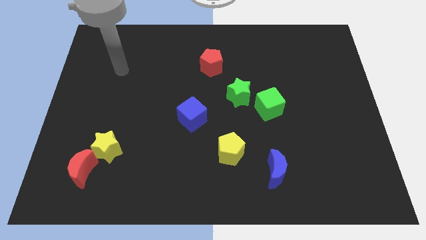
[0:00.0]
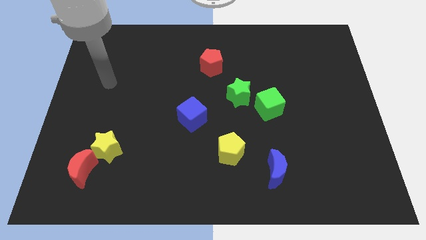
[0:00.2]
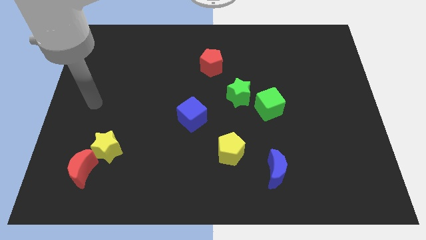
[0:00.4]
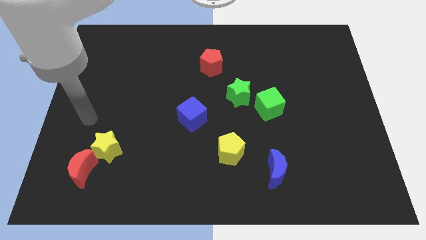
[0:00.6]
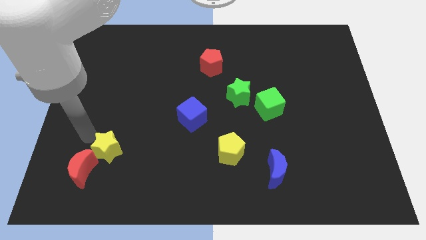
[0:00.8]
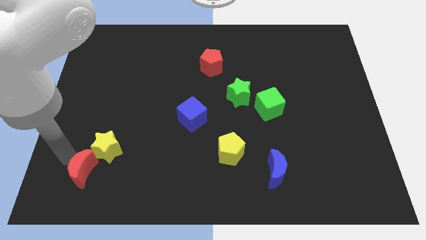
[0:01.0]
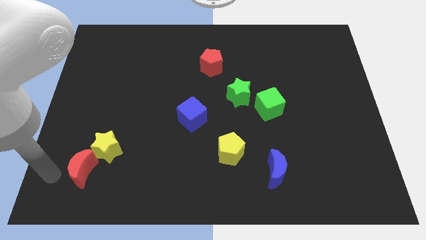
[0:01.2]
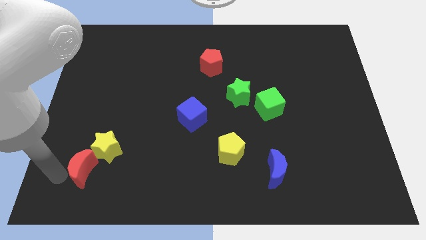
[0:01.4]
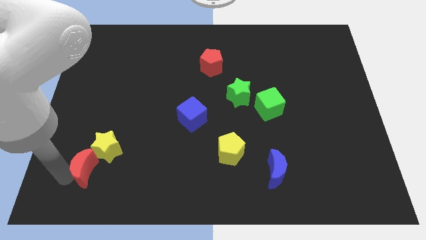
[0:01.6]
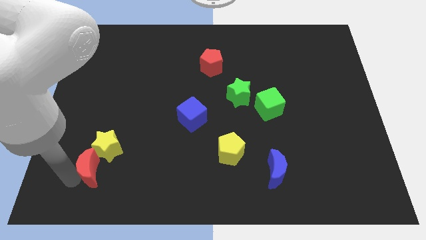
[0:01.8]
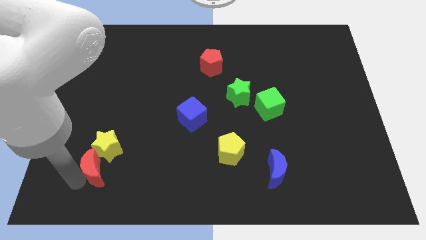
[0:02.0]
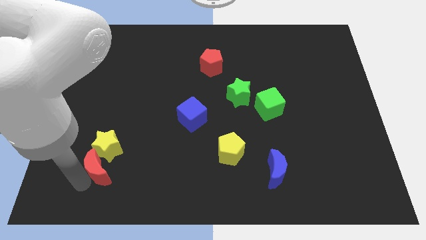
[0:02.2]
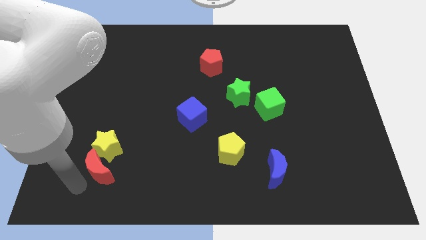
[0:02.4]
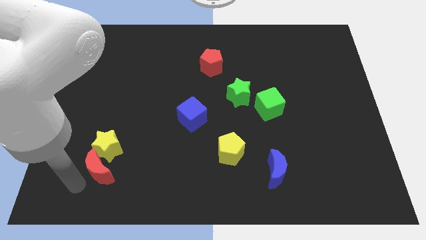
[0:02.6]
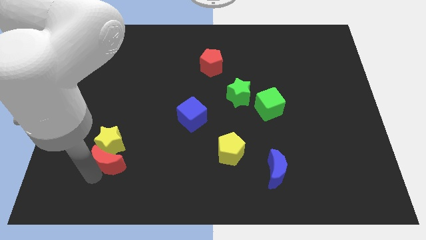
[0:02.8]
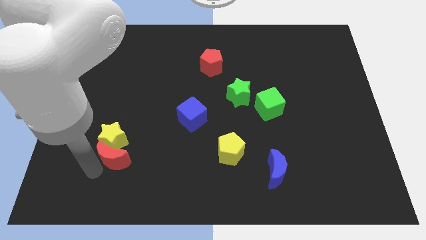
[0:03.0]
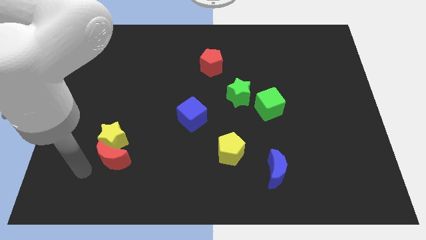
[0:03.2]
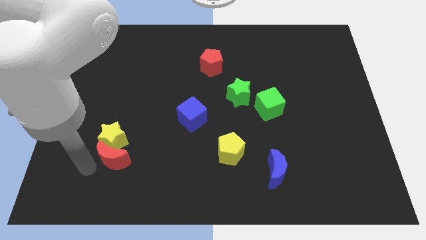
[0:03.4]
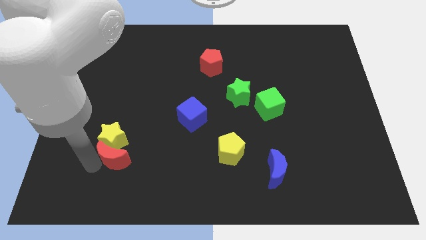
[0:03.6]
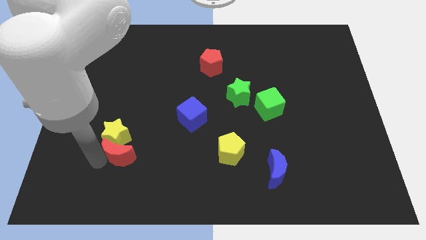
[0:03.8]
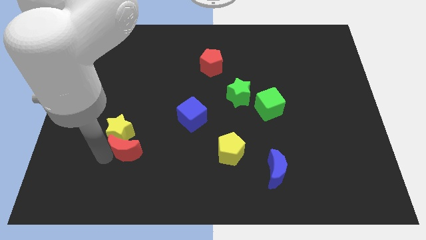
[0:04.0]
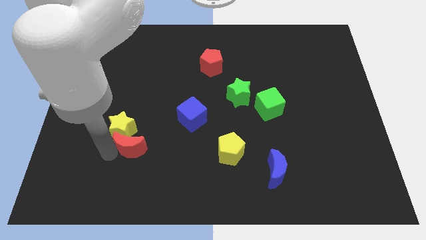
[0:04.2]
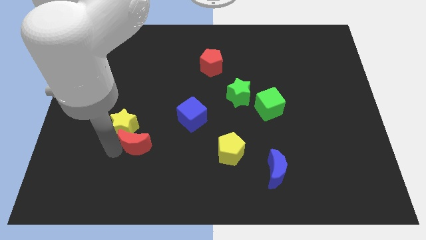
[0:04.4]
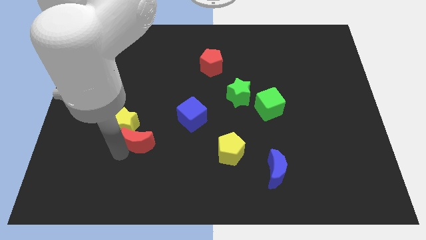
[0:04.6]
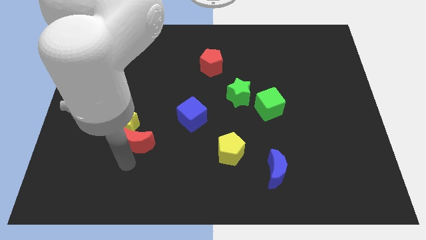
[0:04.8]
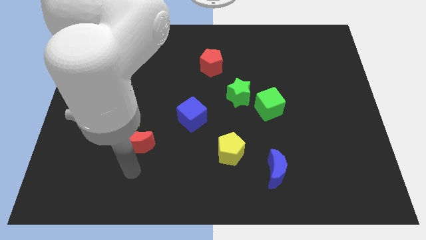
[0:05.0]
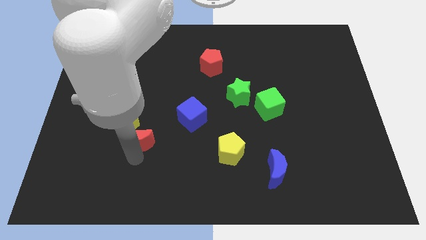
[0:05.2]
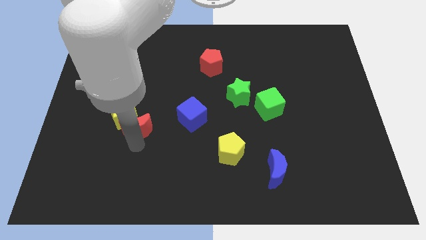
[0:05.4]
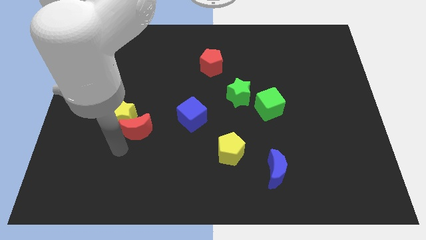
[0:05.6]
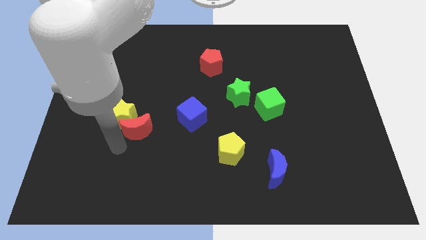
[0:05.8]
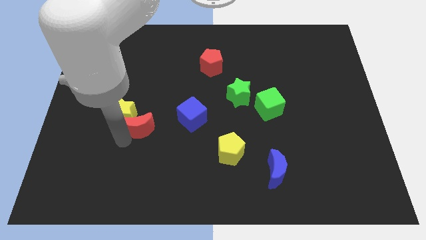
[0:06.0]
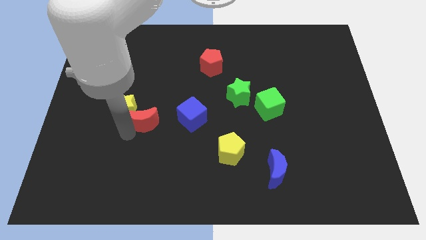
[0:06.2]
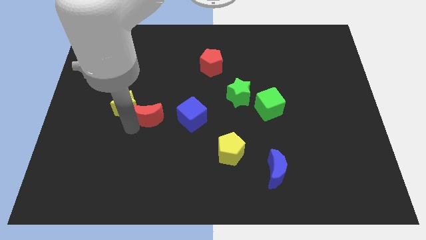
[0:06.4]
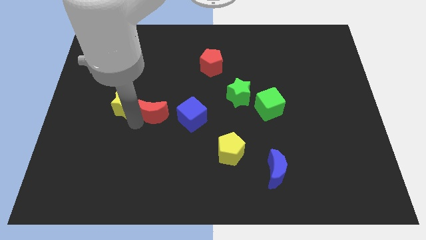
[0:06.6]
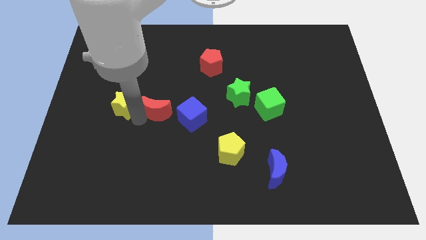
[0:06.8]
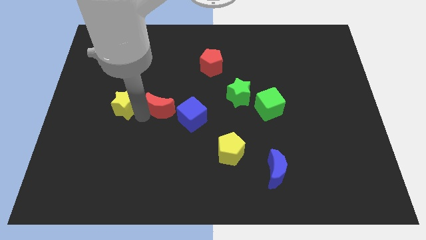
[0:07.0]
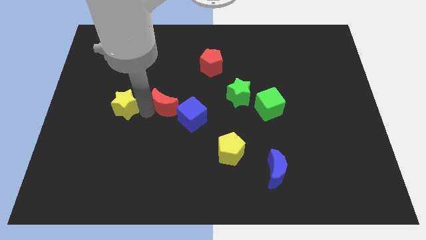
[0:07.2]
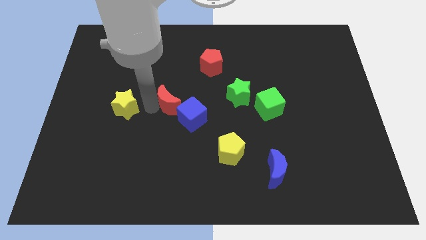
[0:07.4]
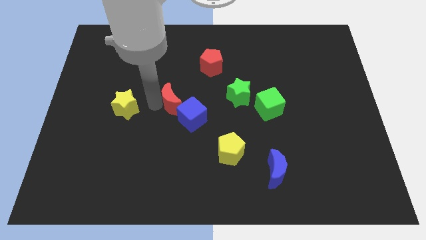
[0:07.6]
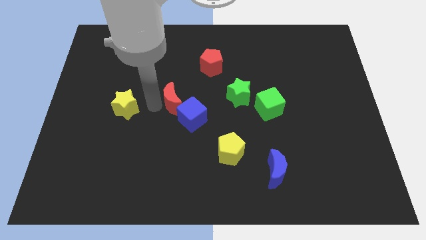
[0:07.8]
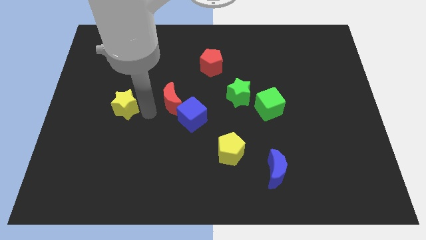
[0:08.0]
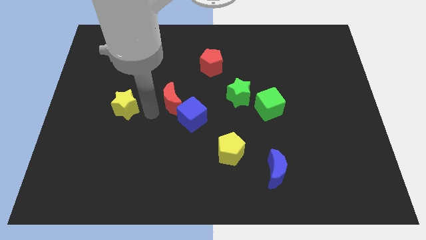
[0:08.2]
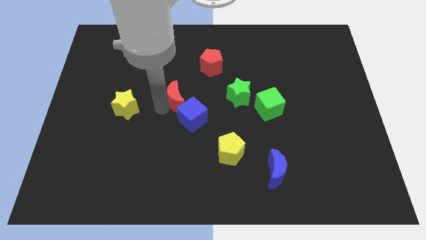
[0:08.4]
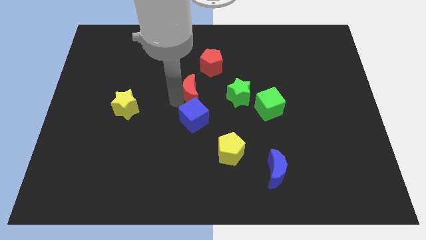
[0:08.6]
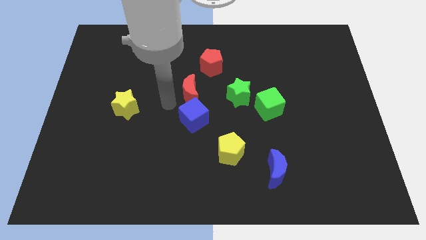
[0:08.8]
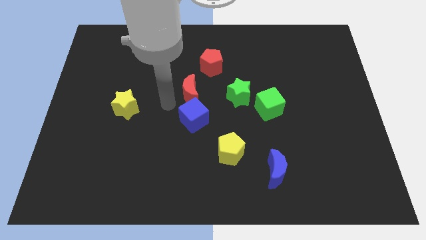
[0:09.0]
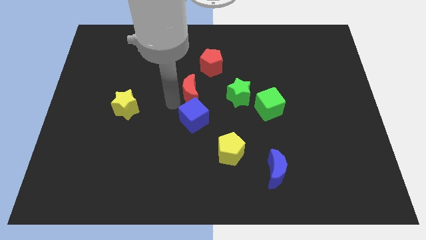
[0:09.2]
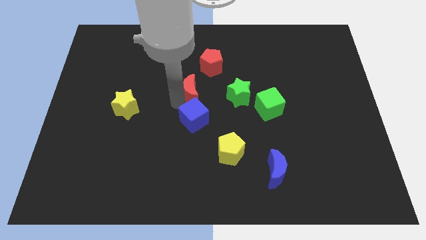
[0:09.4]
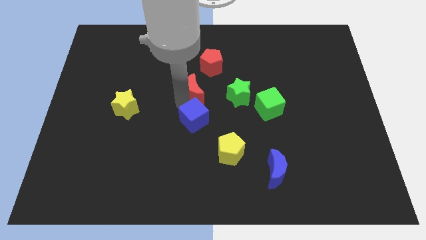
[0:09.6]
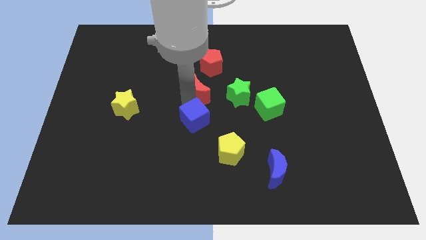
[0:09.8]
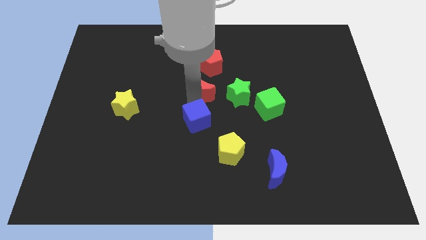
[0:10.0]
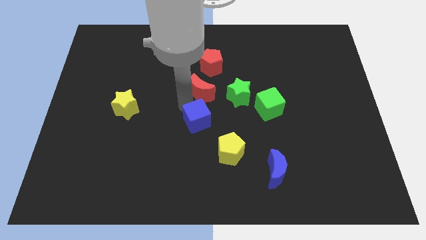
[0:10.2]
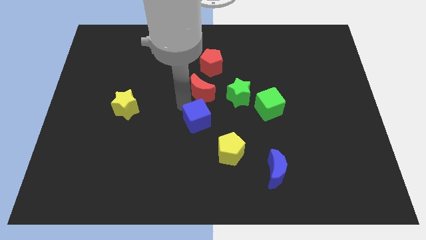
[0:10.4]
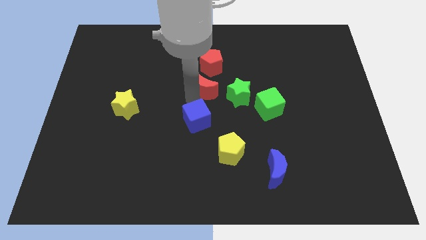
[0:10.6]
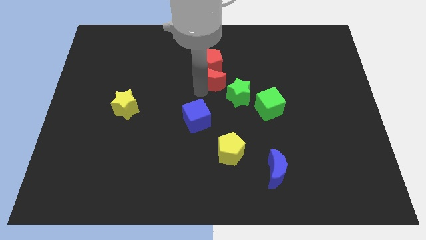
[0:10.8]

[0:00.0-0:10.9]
put the red moon to the bottom right side of the red pentagon

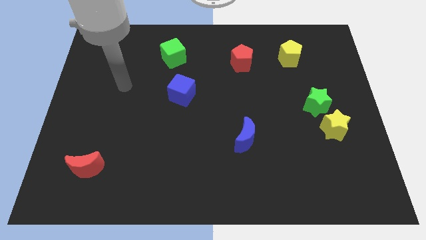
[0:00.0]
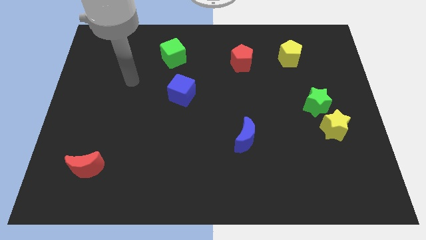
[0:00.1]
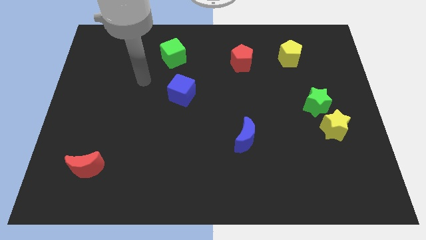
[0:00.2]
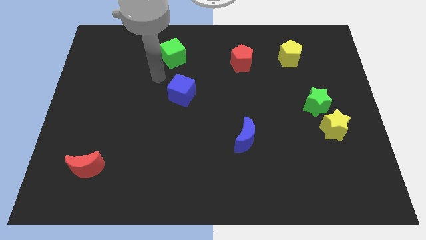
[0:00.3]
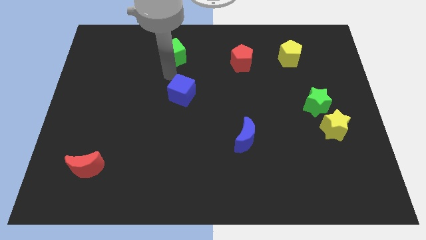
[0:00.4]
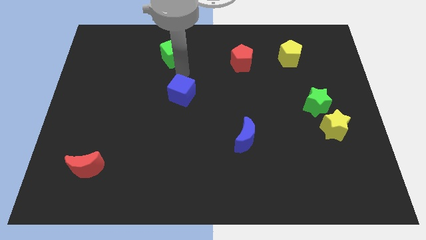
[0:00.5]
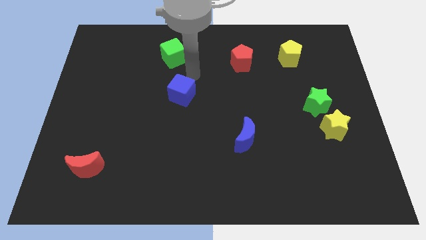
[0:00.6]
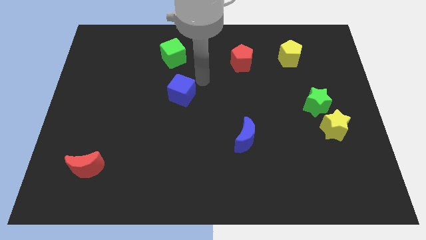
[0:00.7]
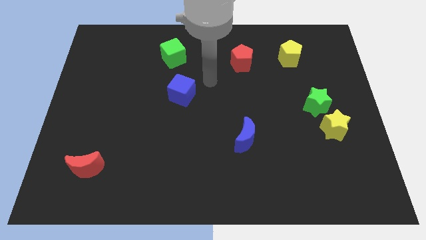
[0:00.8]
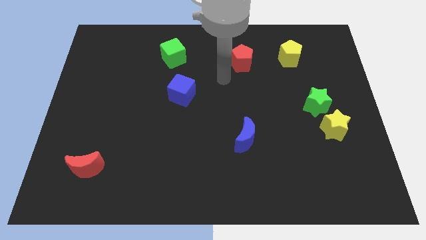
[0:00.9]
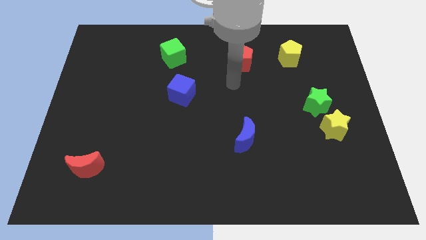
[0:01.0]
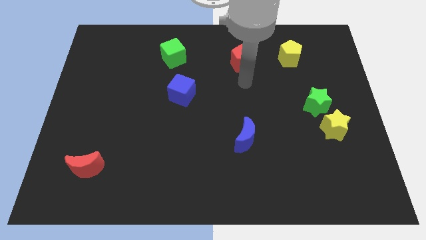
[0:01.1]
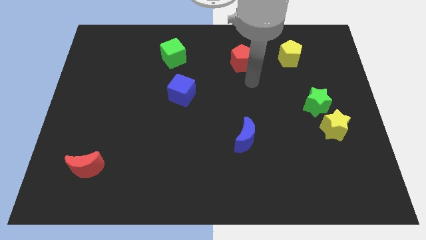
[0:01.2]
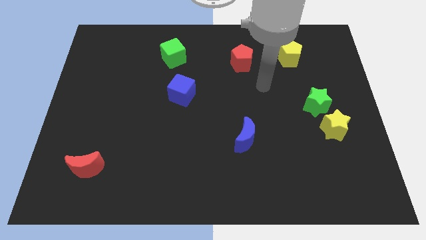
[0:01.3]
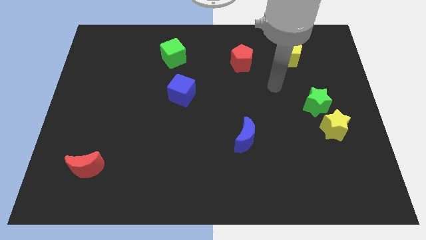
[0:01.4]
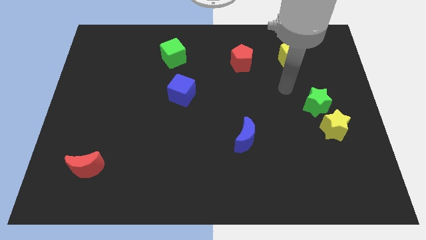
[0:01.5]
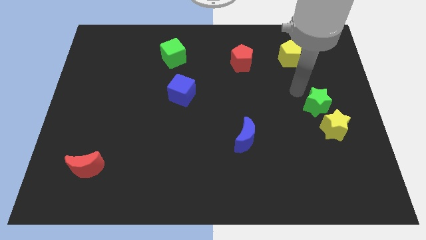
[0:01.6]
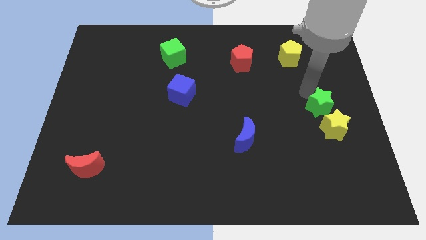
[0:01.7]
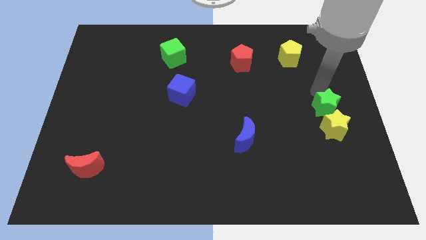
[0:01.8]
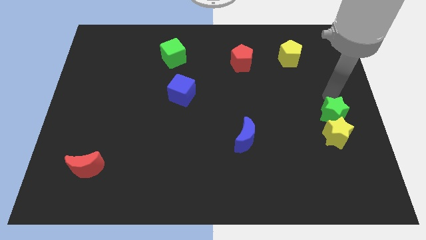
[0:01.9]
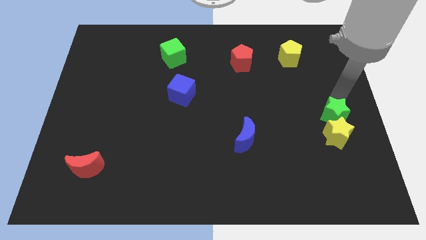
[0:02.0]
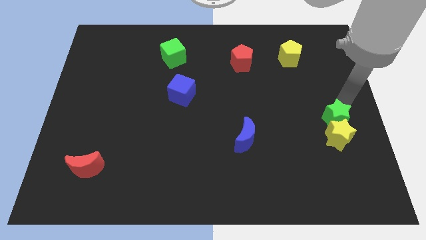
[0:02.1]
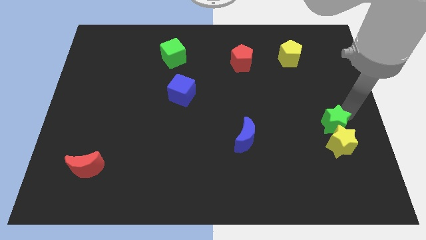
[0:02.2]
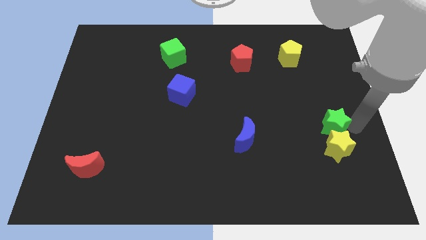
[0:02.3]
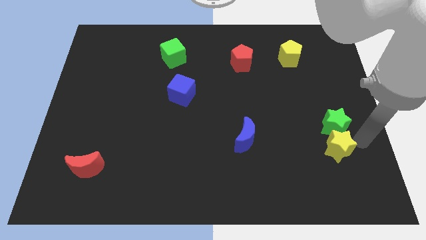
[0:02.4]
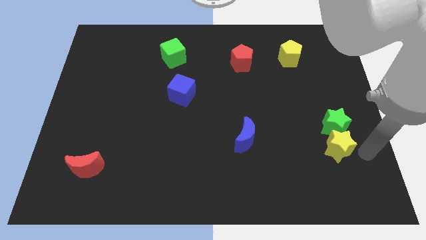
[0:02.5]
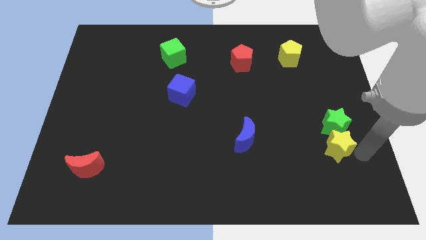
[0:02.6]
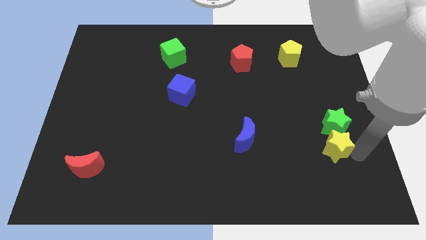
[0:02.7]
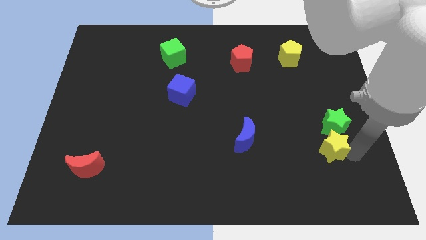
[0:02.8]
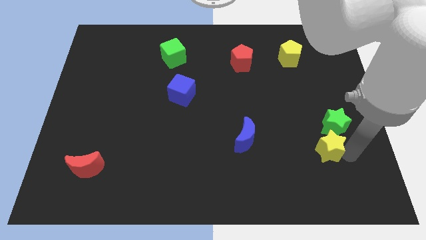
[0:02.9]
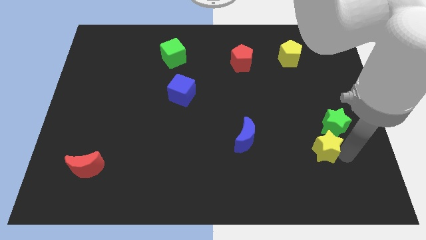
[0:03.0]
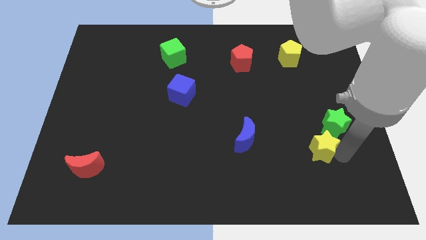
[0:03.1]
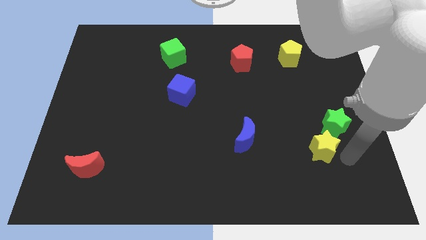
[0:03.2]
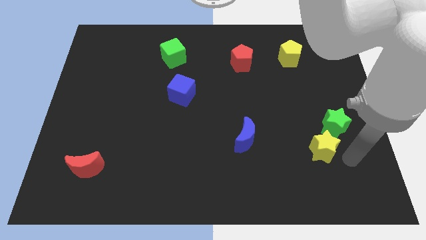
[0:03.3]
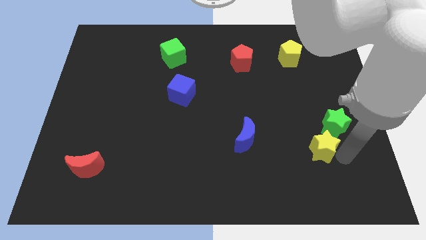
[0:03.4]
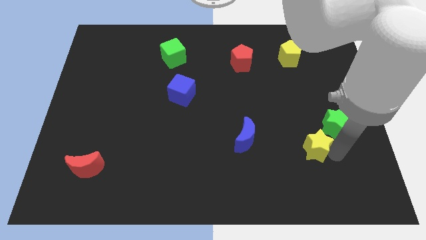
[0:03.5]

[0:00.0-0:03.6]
slide the yellow star to the right side of the blue moon
